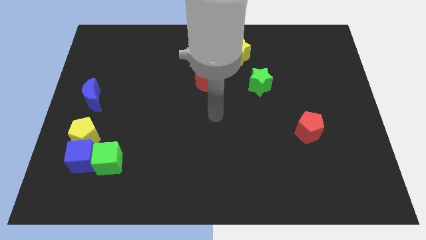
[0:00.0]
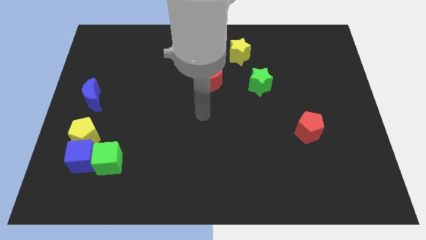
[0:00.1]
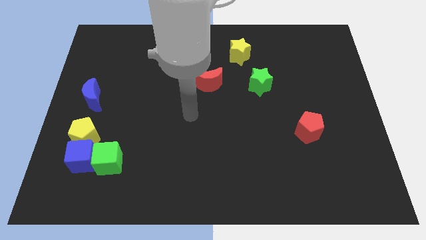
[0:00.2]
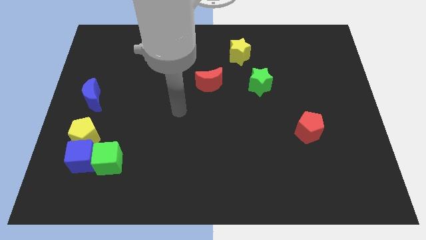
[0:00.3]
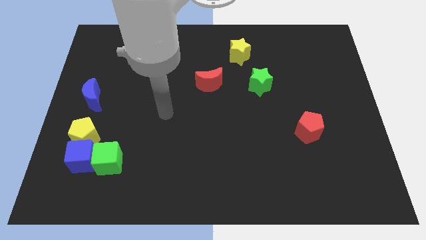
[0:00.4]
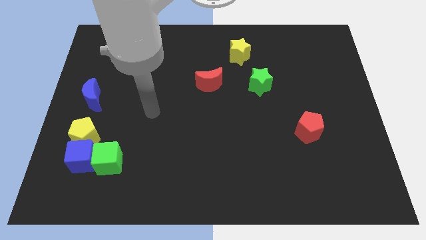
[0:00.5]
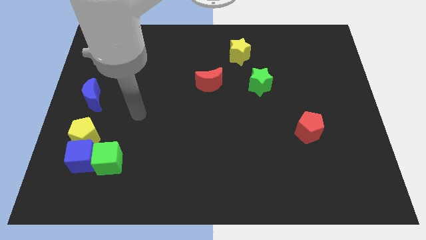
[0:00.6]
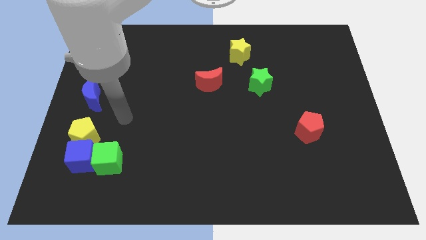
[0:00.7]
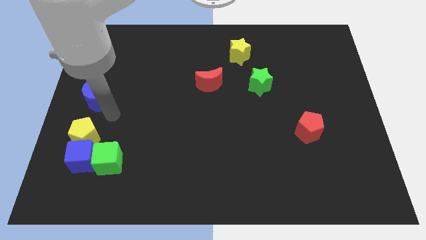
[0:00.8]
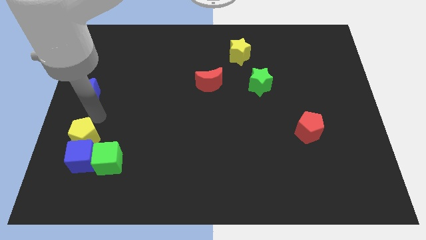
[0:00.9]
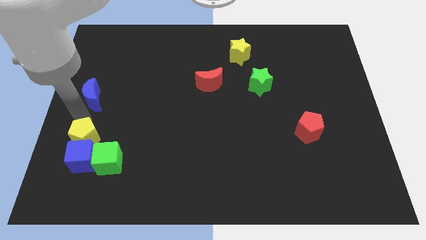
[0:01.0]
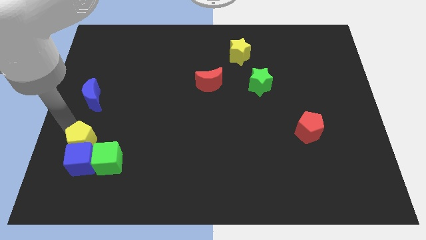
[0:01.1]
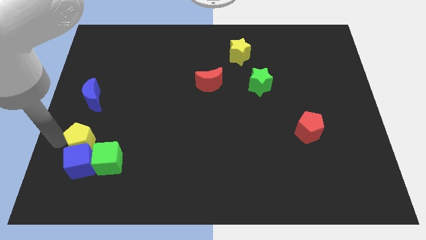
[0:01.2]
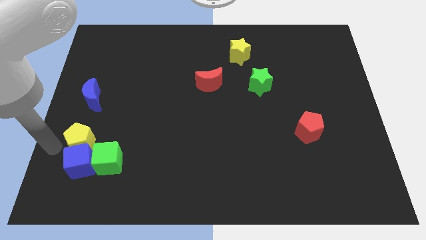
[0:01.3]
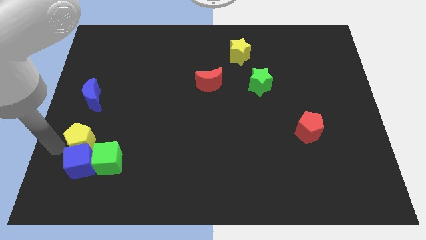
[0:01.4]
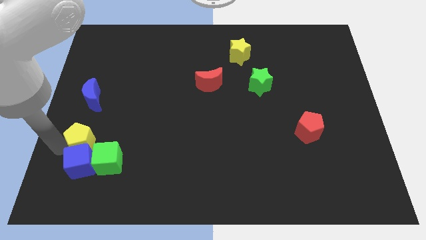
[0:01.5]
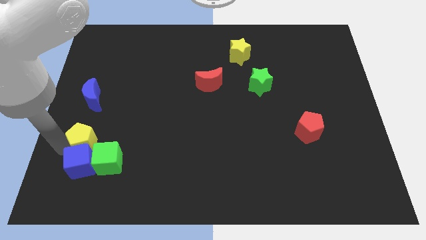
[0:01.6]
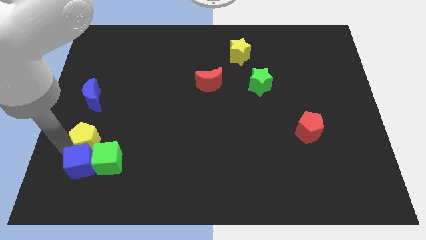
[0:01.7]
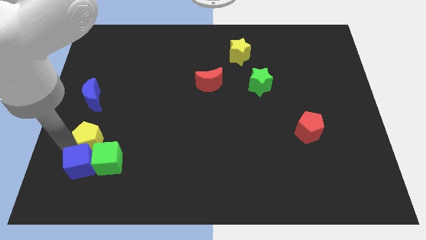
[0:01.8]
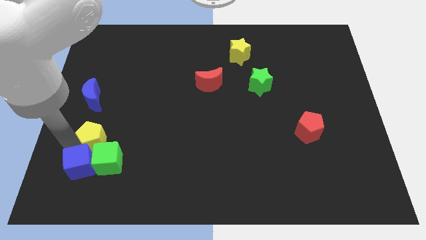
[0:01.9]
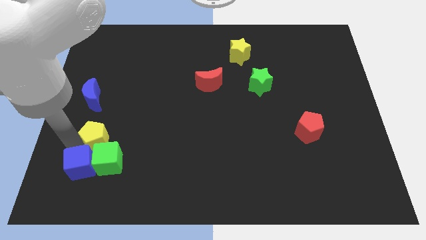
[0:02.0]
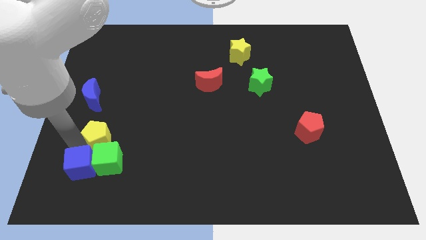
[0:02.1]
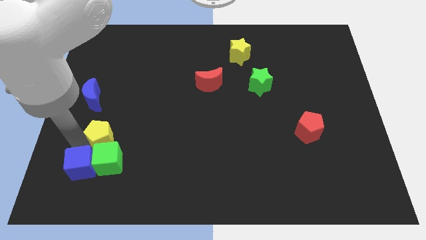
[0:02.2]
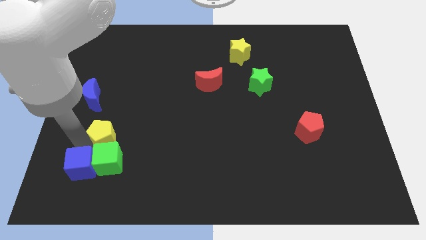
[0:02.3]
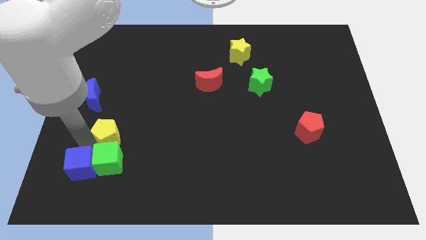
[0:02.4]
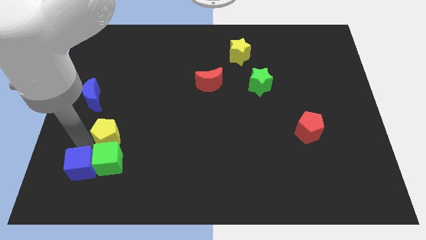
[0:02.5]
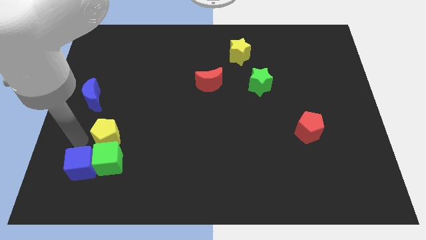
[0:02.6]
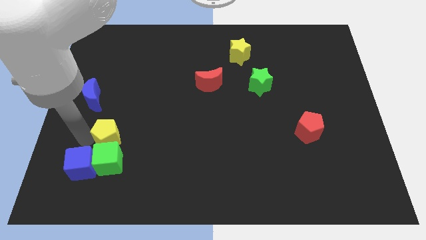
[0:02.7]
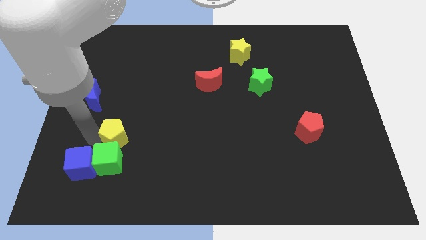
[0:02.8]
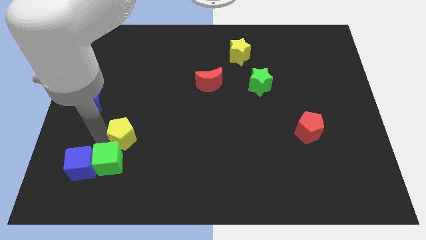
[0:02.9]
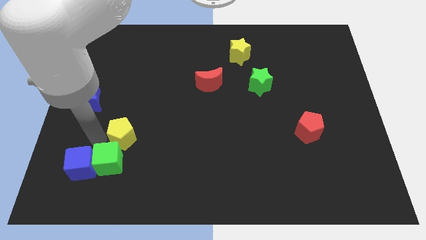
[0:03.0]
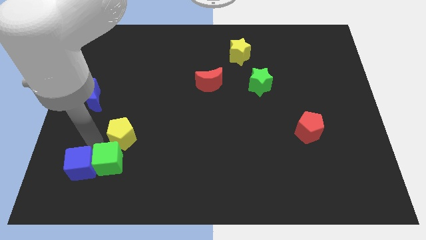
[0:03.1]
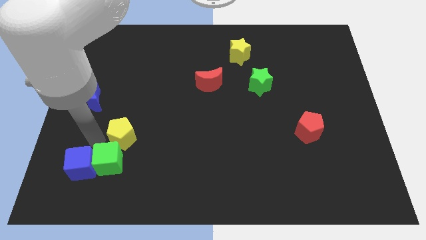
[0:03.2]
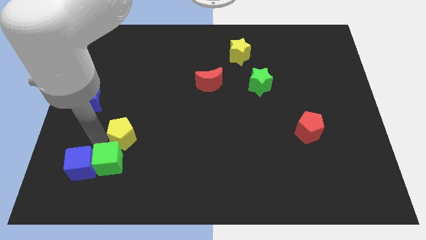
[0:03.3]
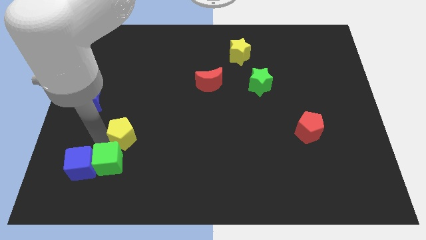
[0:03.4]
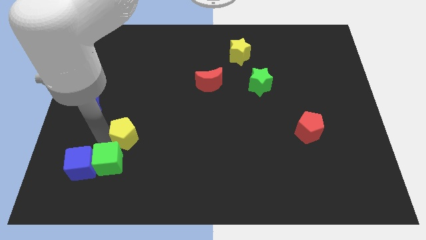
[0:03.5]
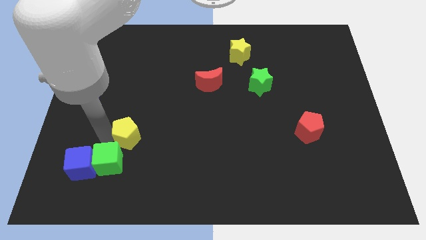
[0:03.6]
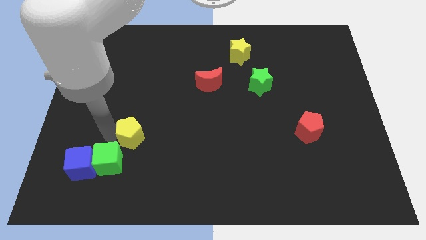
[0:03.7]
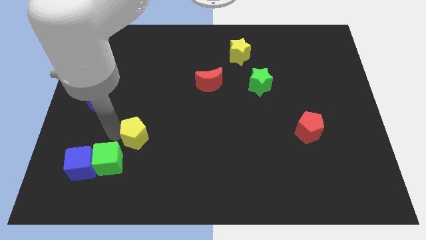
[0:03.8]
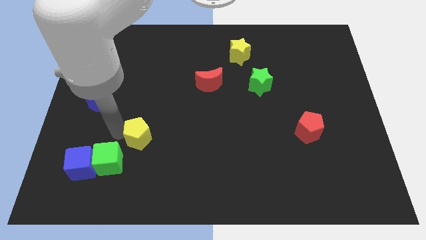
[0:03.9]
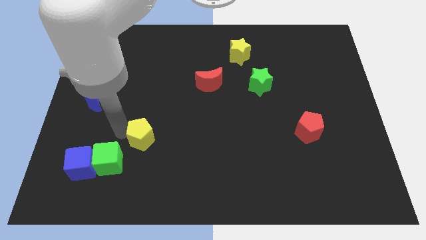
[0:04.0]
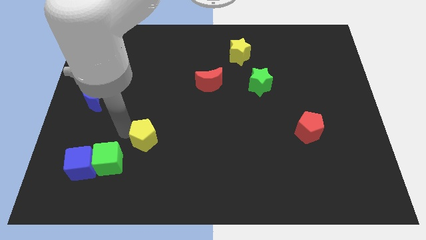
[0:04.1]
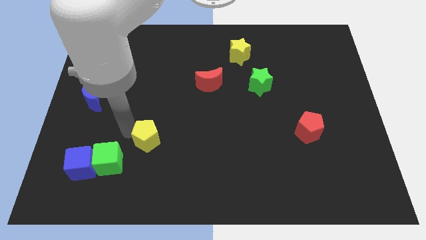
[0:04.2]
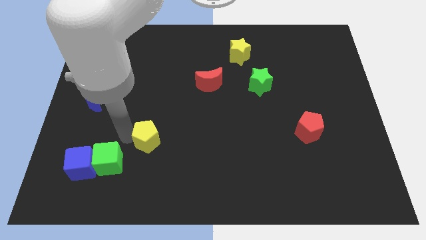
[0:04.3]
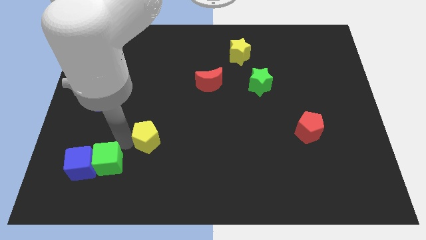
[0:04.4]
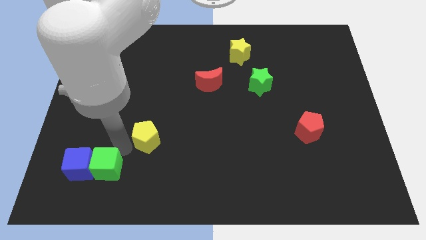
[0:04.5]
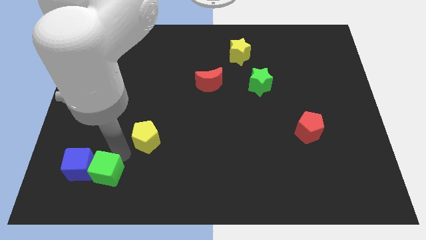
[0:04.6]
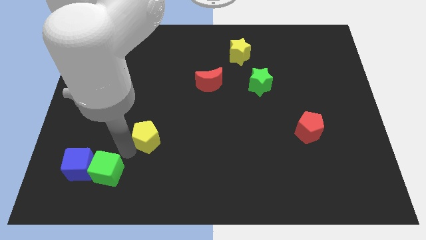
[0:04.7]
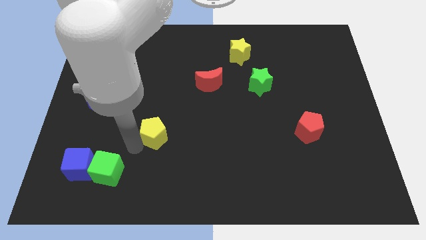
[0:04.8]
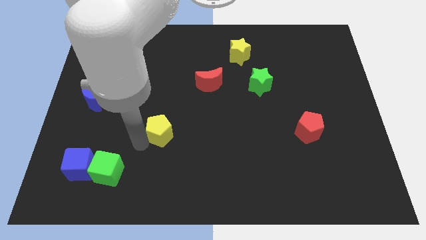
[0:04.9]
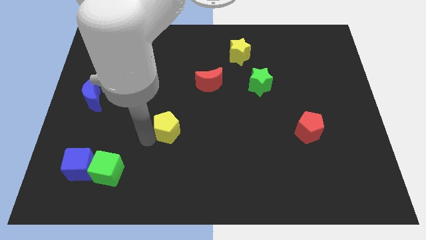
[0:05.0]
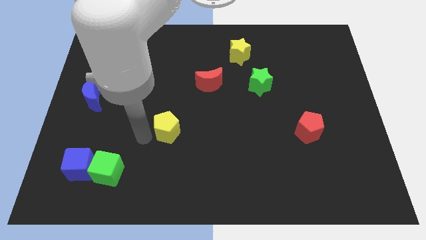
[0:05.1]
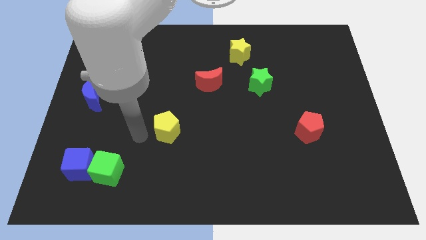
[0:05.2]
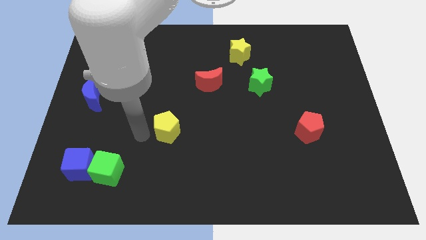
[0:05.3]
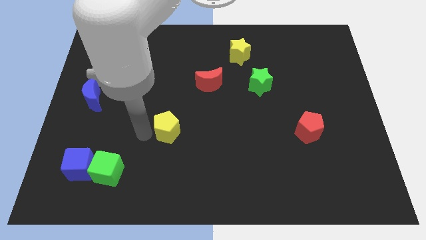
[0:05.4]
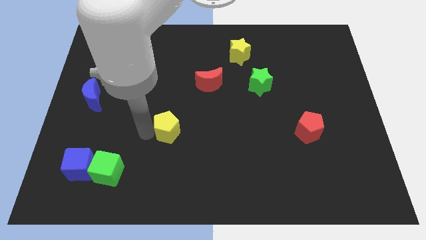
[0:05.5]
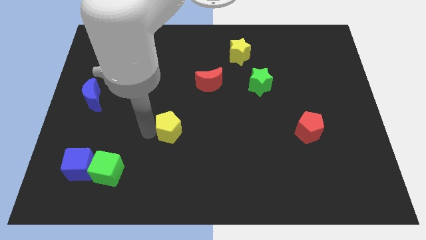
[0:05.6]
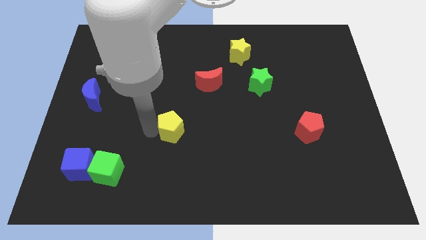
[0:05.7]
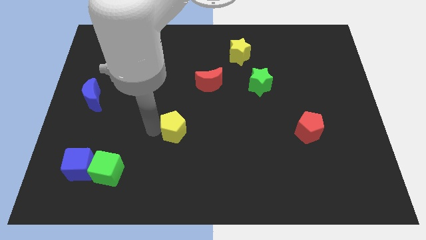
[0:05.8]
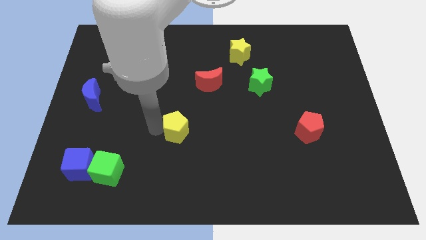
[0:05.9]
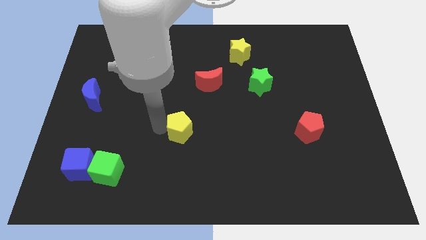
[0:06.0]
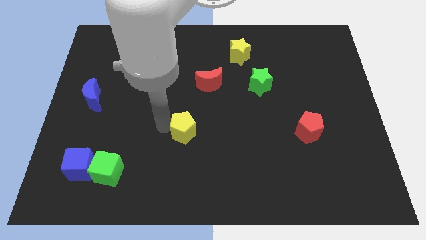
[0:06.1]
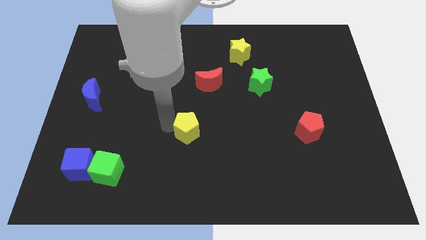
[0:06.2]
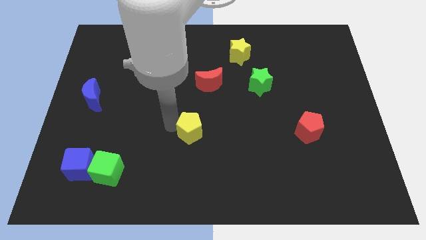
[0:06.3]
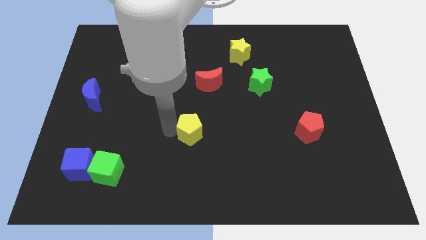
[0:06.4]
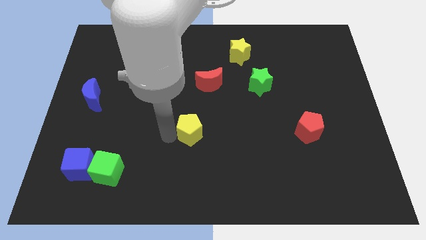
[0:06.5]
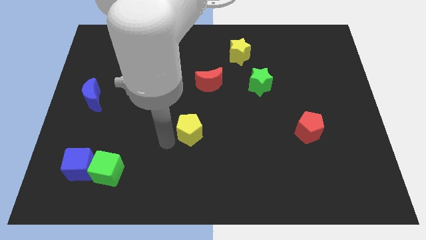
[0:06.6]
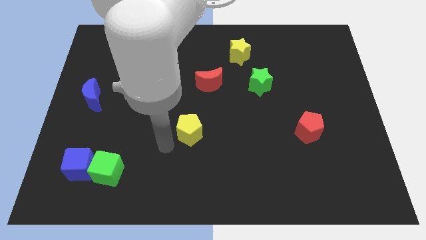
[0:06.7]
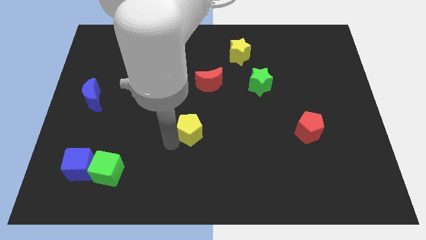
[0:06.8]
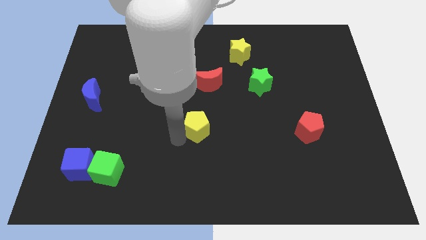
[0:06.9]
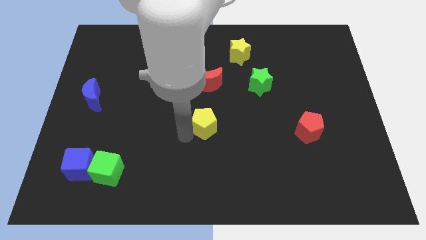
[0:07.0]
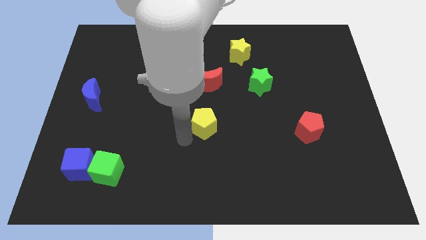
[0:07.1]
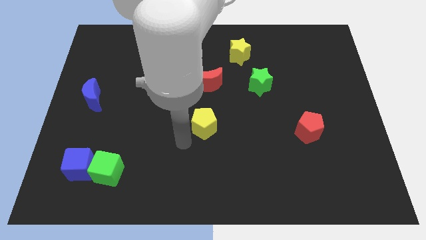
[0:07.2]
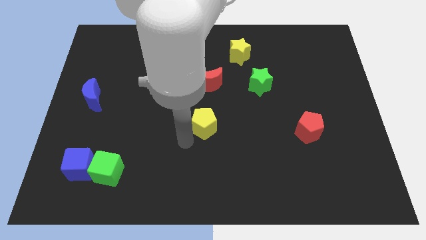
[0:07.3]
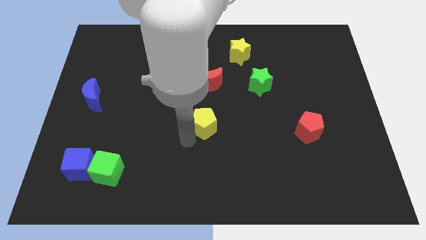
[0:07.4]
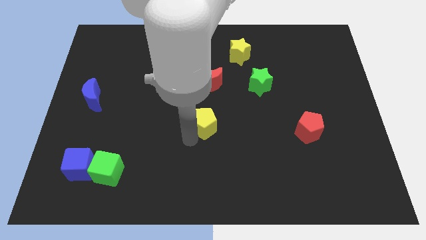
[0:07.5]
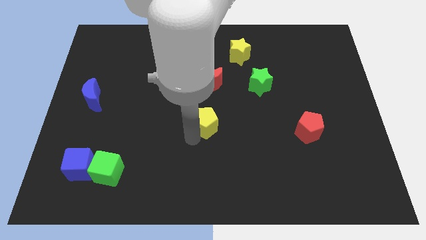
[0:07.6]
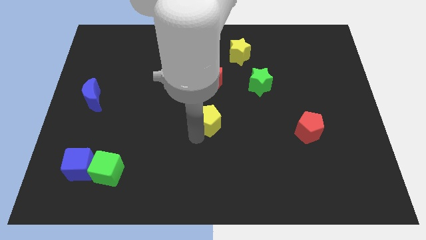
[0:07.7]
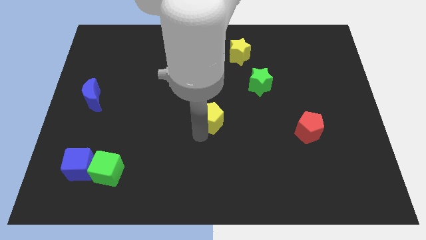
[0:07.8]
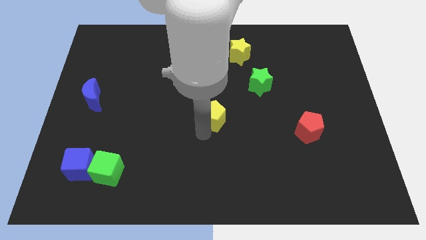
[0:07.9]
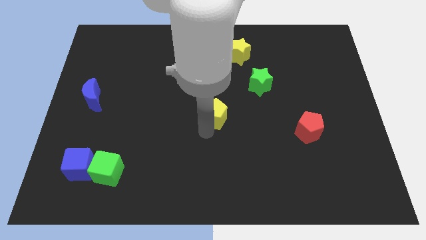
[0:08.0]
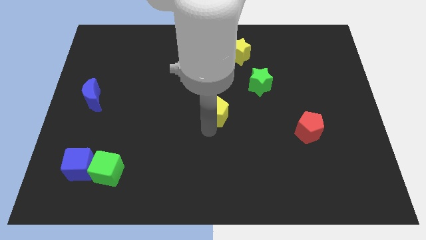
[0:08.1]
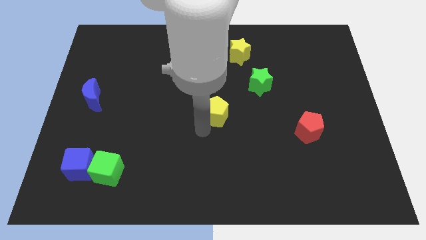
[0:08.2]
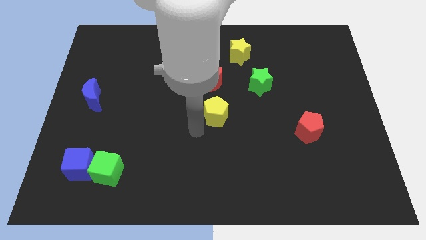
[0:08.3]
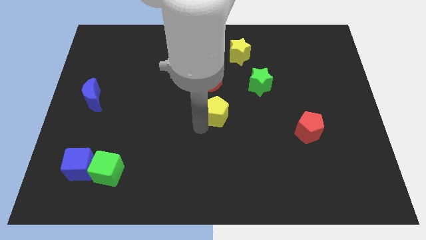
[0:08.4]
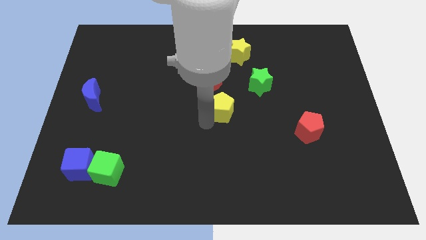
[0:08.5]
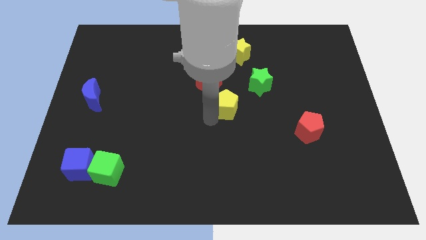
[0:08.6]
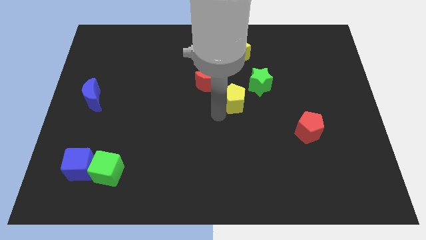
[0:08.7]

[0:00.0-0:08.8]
move the yellow pentagon to the bottom of the yellow star
